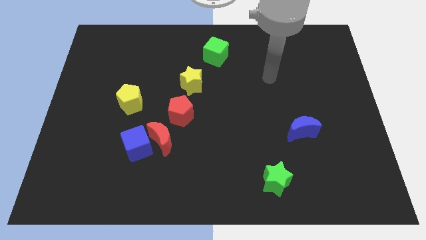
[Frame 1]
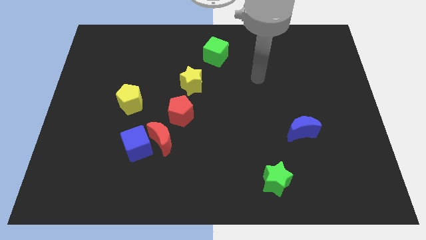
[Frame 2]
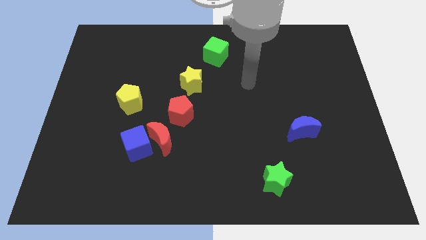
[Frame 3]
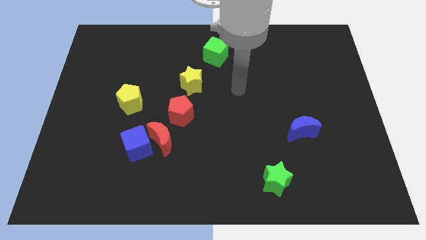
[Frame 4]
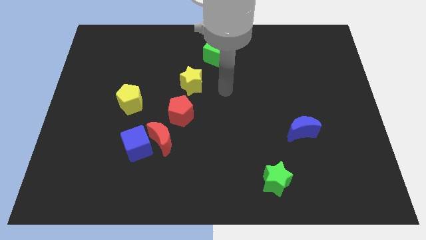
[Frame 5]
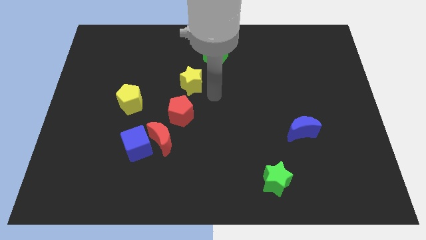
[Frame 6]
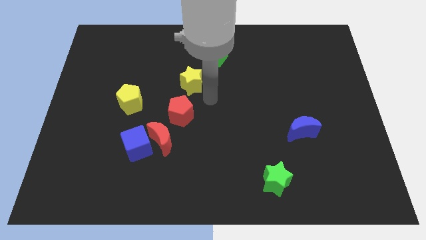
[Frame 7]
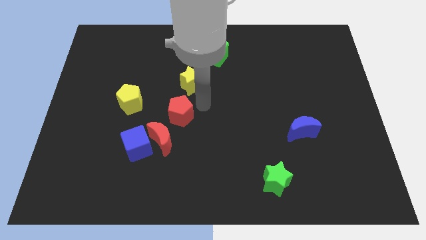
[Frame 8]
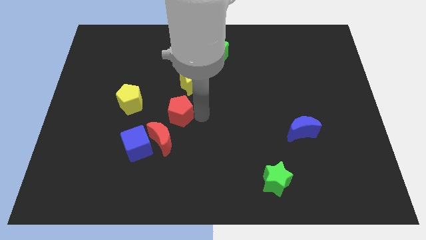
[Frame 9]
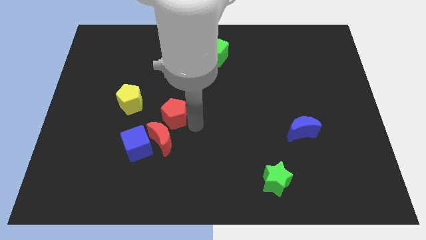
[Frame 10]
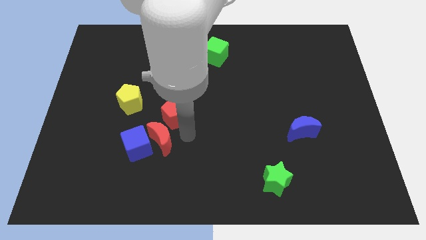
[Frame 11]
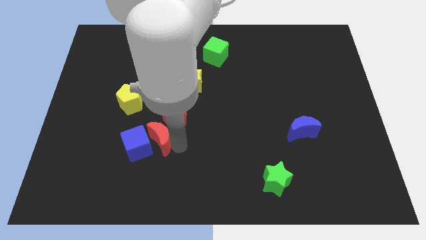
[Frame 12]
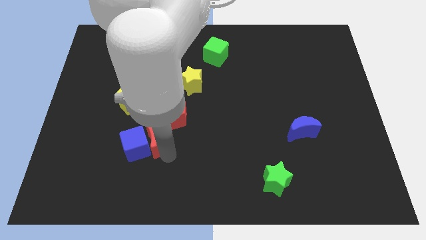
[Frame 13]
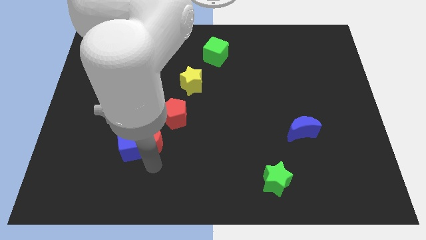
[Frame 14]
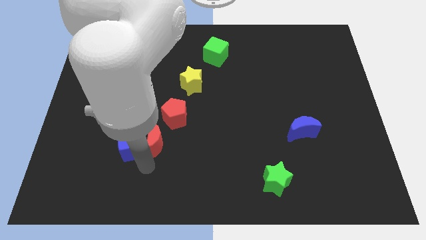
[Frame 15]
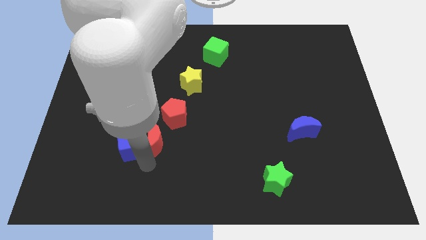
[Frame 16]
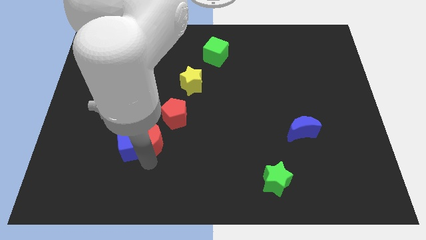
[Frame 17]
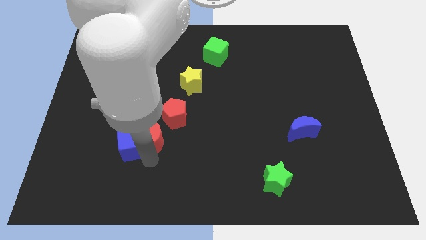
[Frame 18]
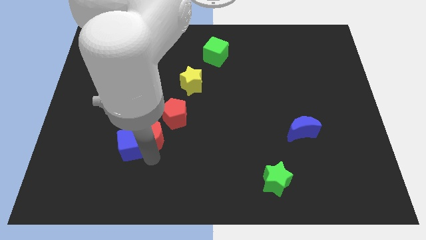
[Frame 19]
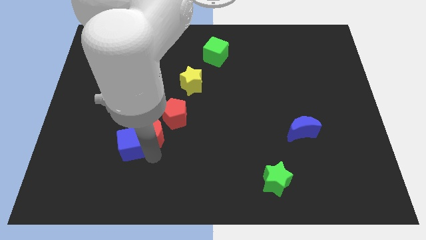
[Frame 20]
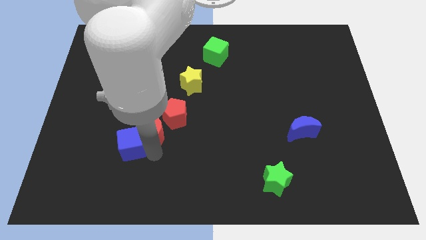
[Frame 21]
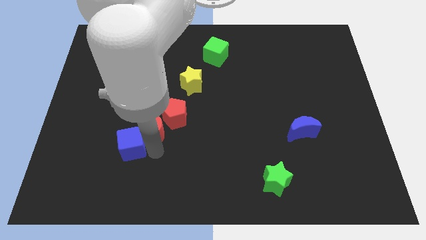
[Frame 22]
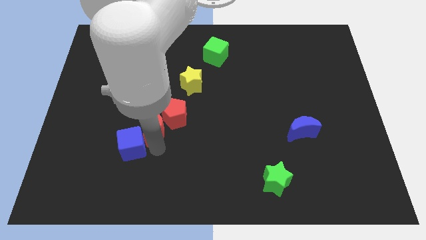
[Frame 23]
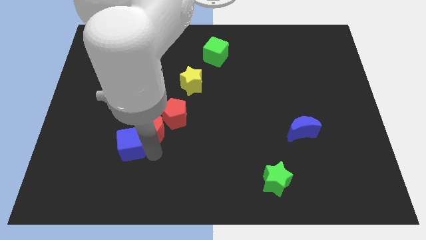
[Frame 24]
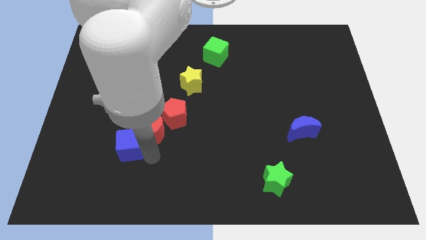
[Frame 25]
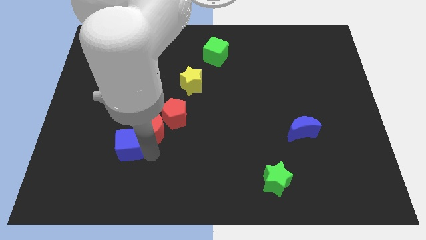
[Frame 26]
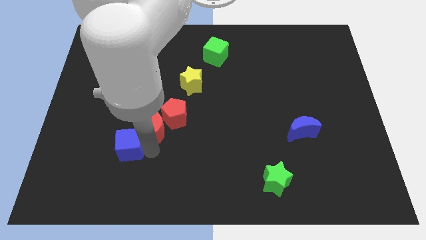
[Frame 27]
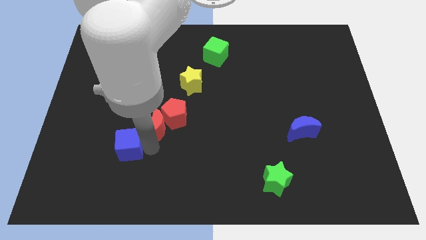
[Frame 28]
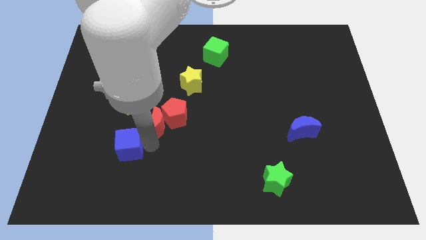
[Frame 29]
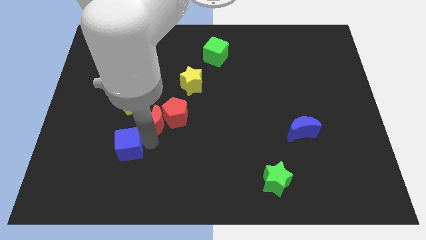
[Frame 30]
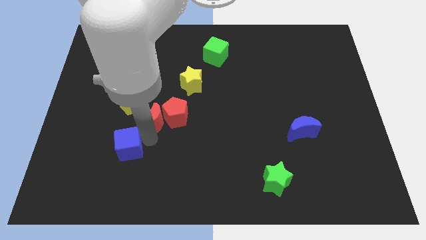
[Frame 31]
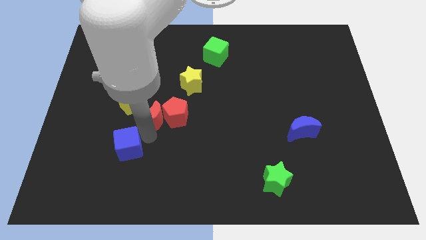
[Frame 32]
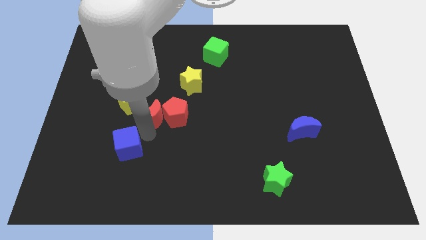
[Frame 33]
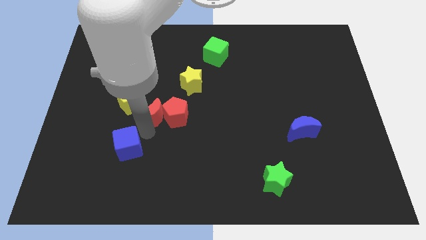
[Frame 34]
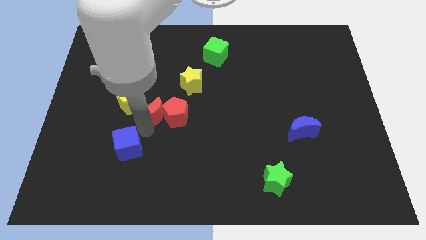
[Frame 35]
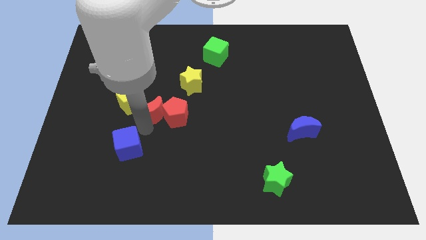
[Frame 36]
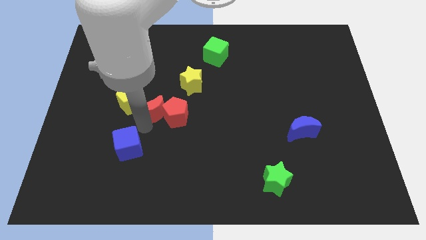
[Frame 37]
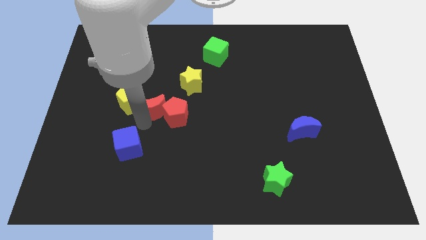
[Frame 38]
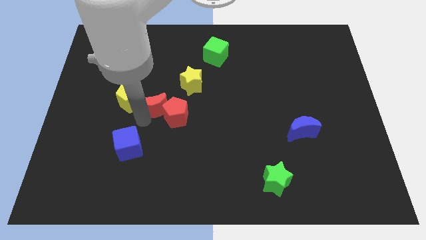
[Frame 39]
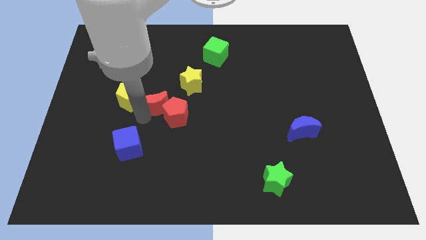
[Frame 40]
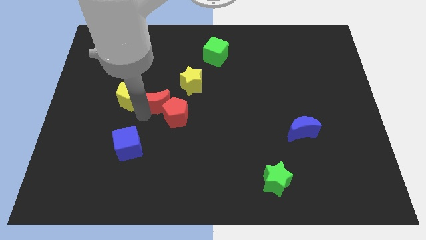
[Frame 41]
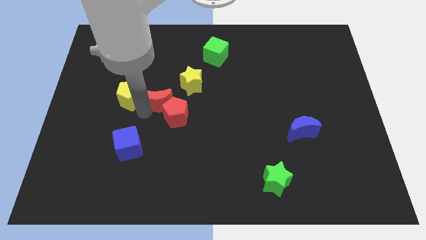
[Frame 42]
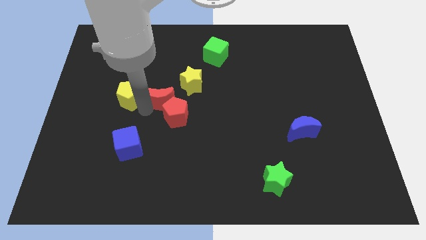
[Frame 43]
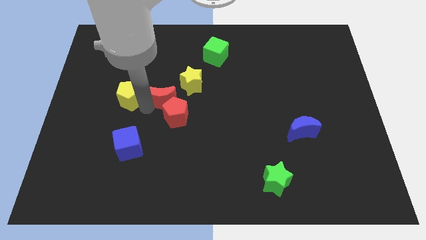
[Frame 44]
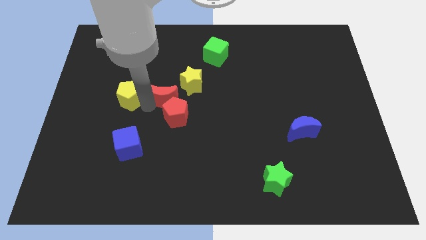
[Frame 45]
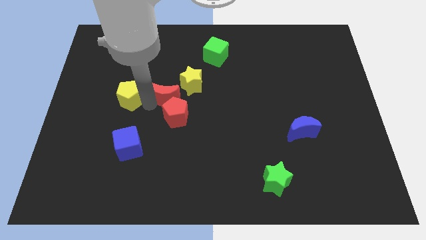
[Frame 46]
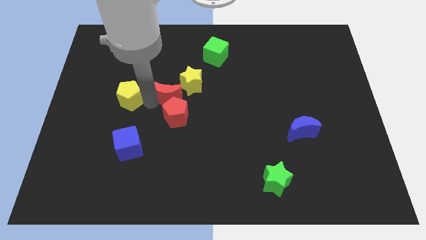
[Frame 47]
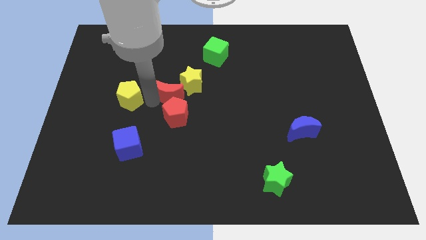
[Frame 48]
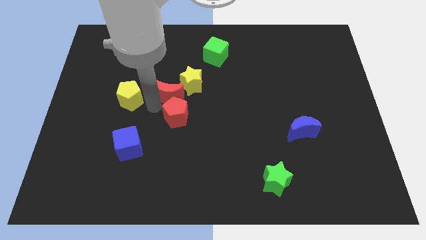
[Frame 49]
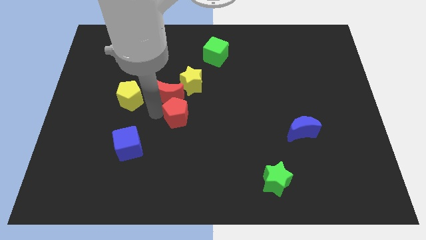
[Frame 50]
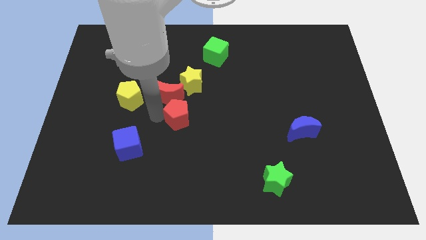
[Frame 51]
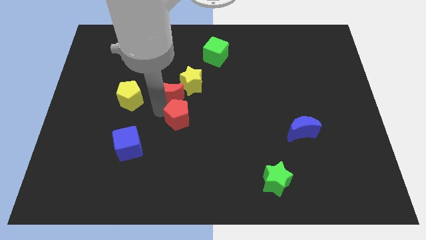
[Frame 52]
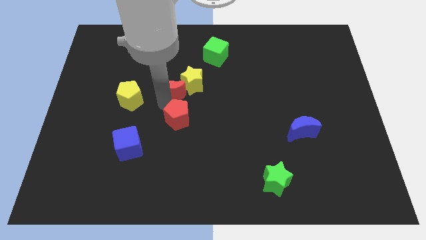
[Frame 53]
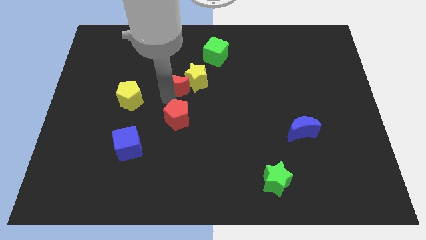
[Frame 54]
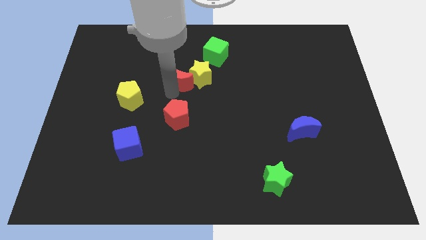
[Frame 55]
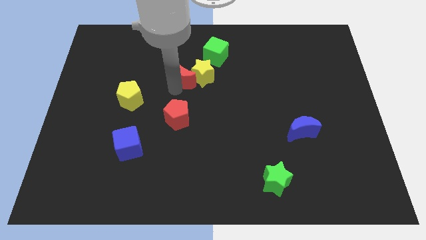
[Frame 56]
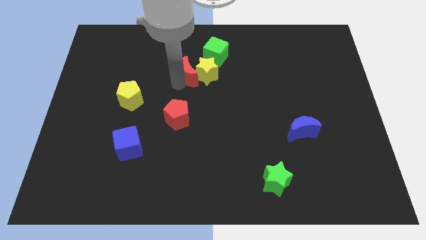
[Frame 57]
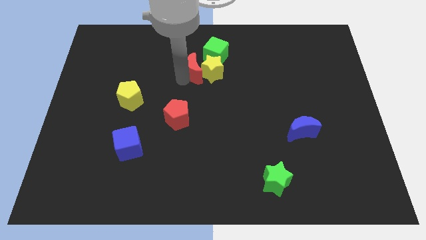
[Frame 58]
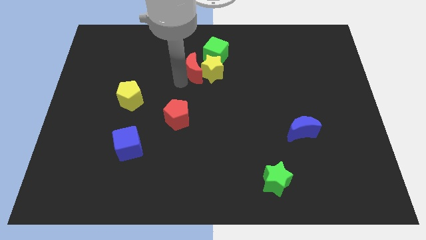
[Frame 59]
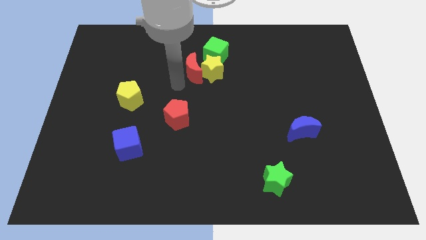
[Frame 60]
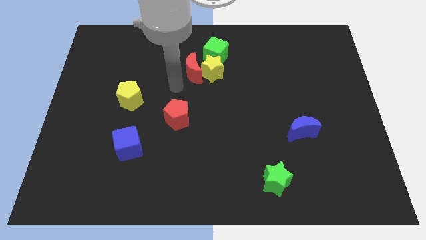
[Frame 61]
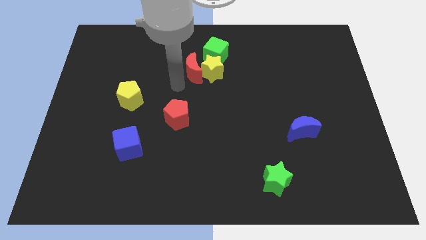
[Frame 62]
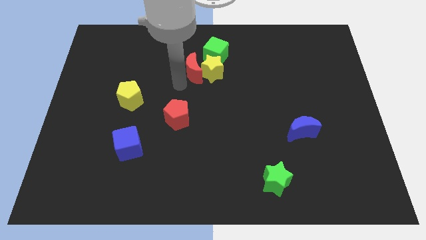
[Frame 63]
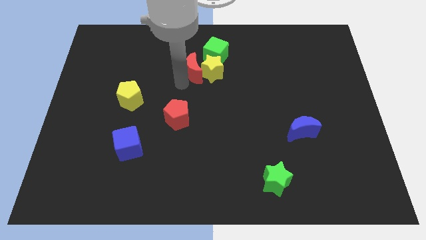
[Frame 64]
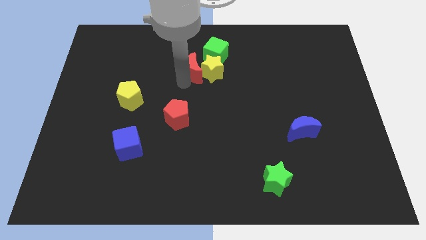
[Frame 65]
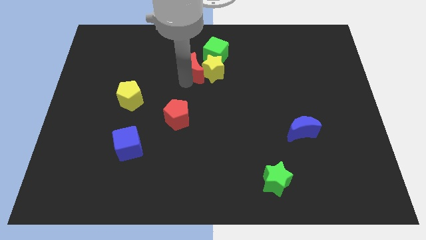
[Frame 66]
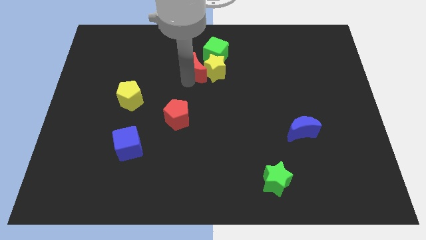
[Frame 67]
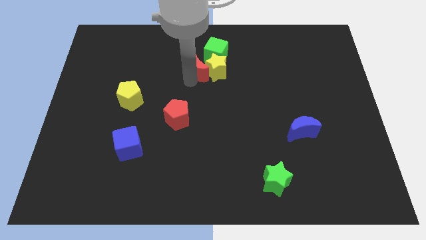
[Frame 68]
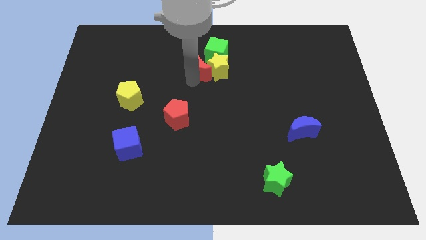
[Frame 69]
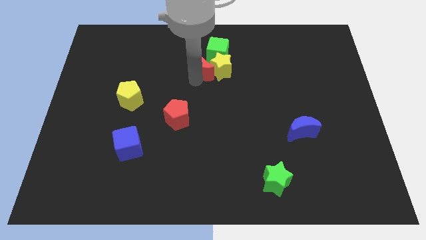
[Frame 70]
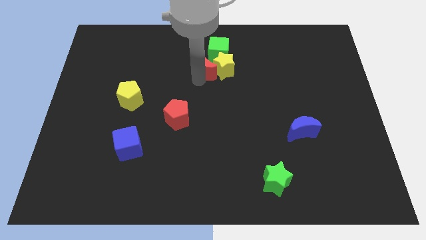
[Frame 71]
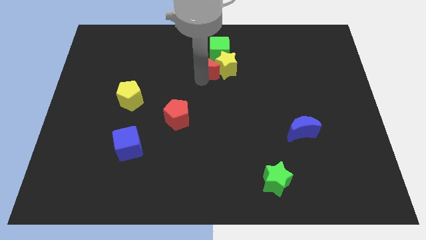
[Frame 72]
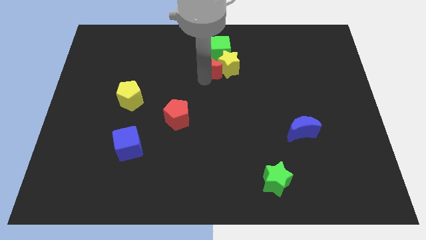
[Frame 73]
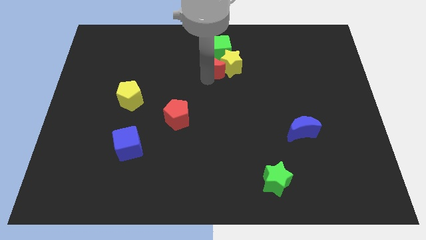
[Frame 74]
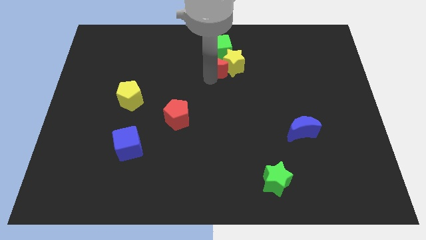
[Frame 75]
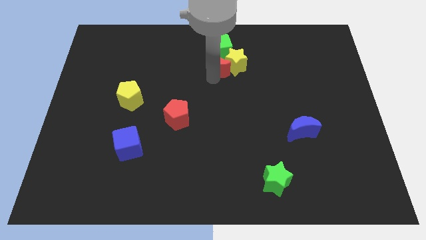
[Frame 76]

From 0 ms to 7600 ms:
put the red moon next to the green cube
